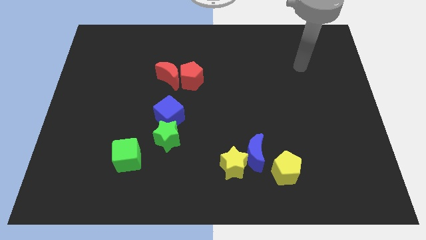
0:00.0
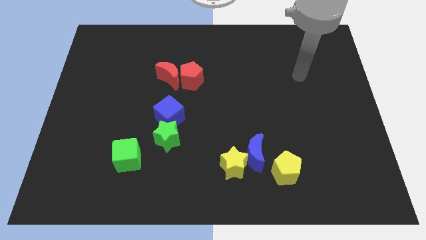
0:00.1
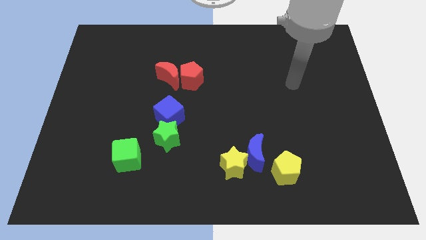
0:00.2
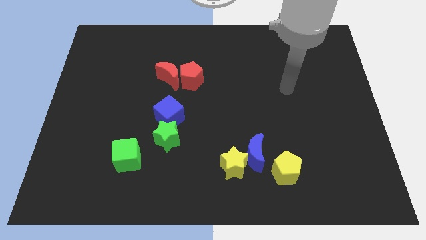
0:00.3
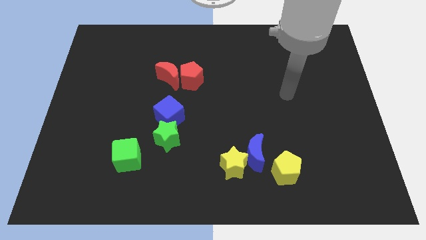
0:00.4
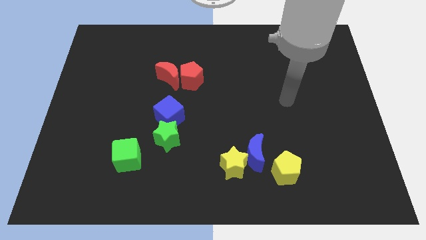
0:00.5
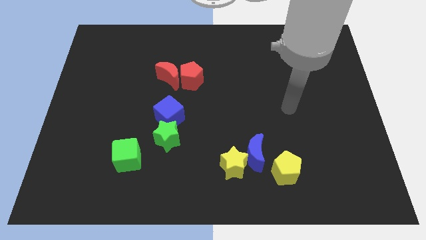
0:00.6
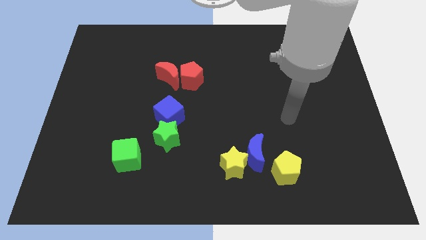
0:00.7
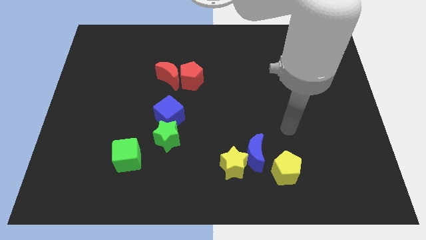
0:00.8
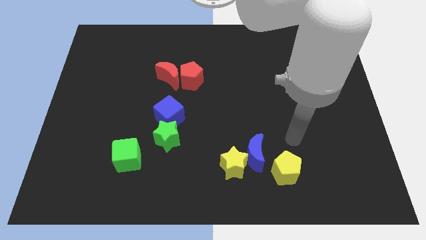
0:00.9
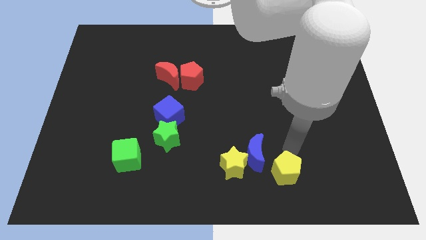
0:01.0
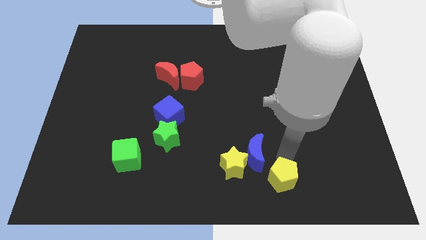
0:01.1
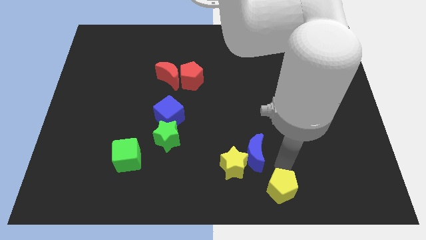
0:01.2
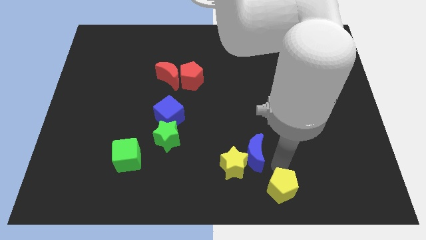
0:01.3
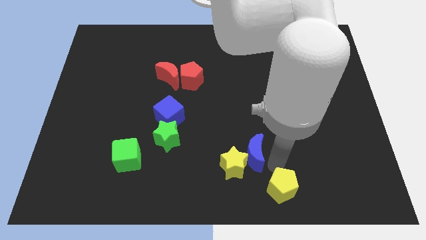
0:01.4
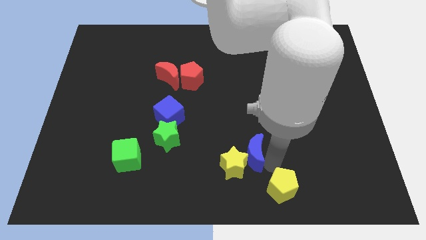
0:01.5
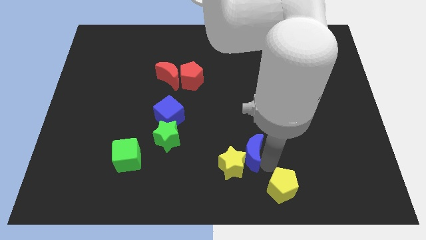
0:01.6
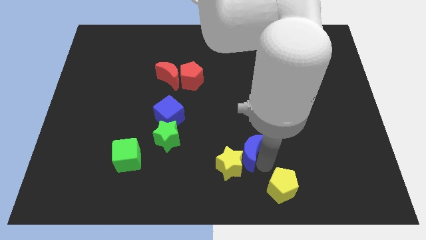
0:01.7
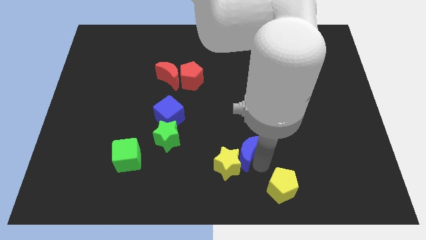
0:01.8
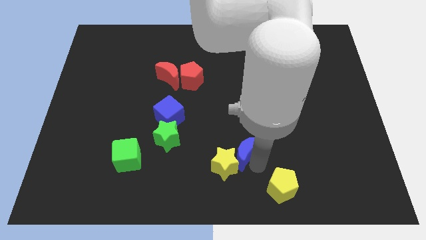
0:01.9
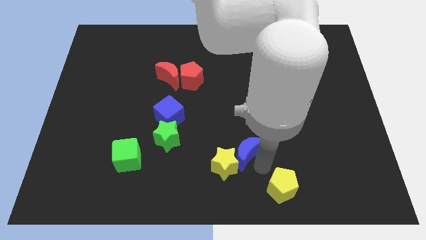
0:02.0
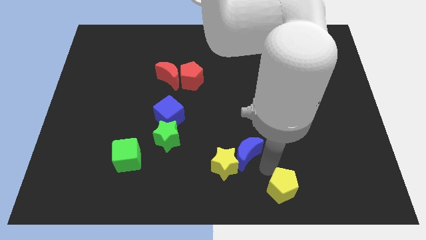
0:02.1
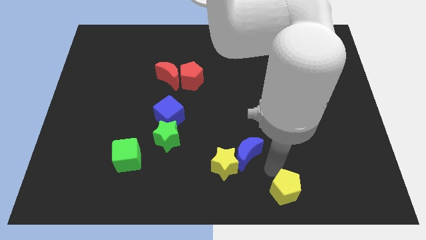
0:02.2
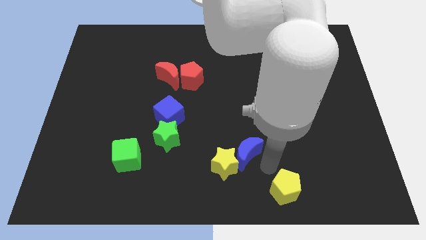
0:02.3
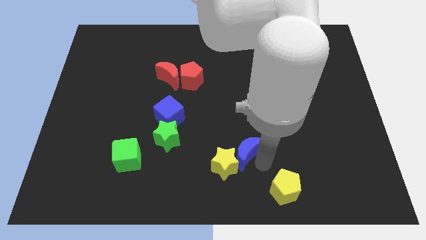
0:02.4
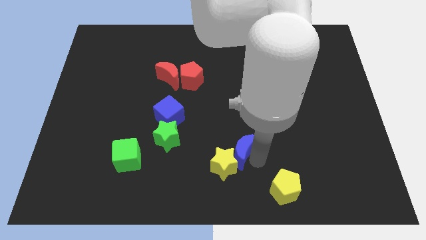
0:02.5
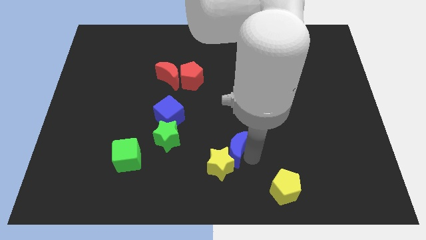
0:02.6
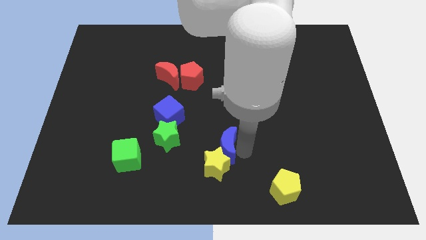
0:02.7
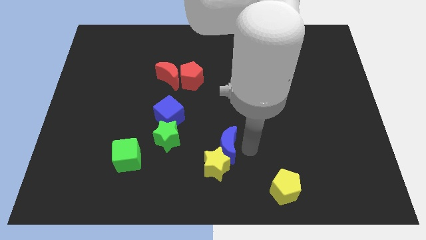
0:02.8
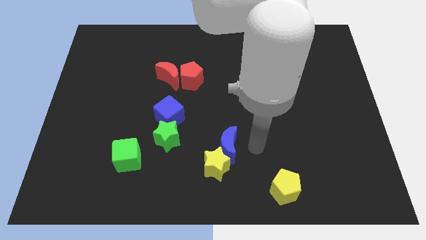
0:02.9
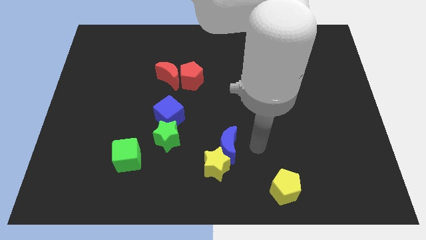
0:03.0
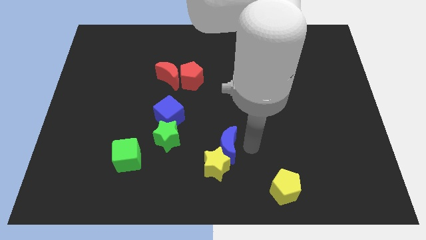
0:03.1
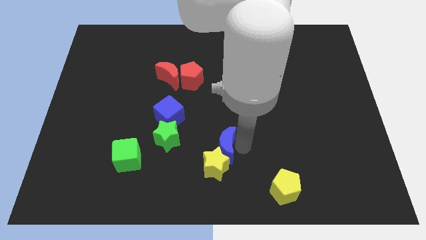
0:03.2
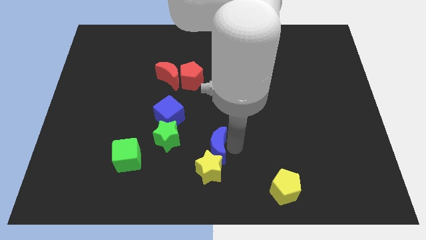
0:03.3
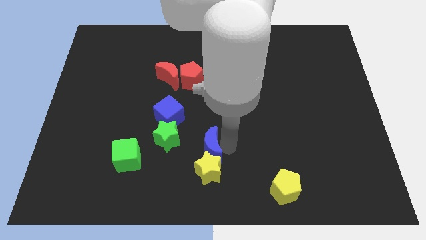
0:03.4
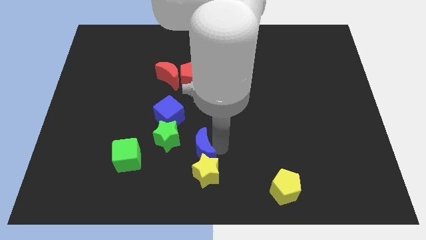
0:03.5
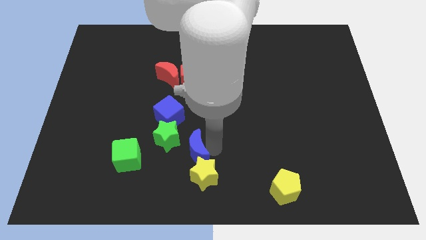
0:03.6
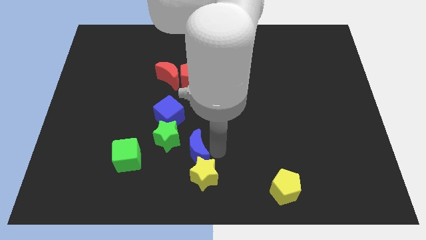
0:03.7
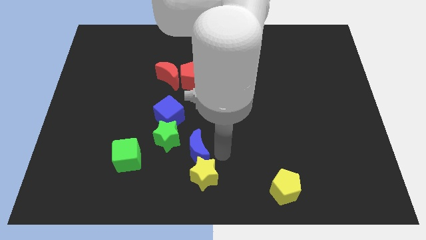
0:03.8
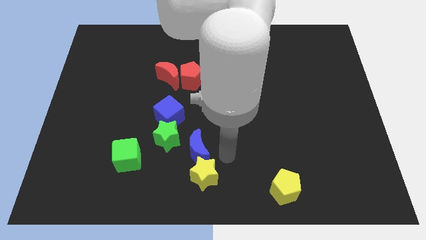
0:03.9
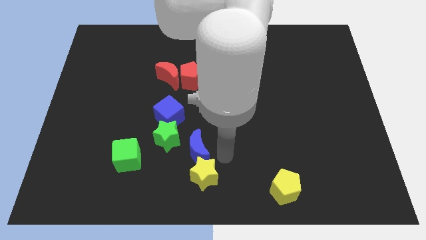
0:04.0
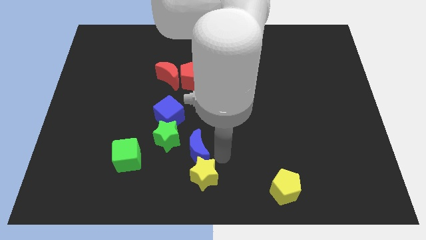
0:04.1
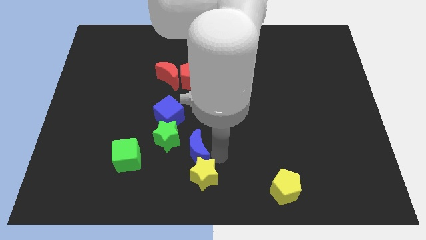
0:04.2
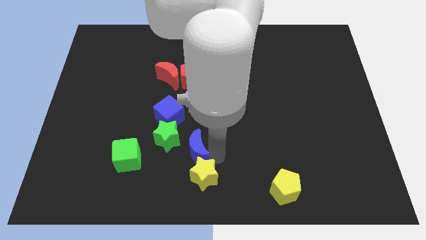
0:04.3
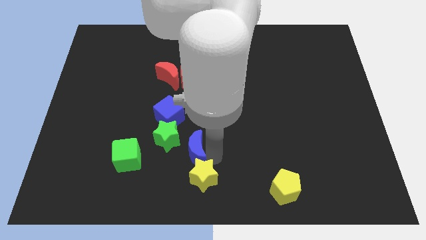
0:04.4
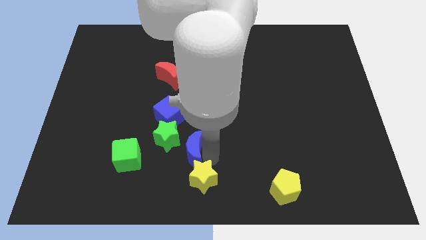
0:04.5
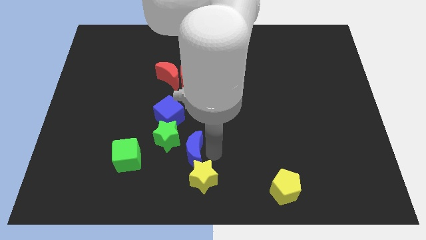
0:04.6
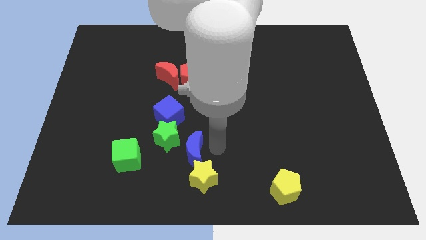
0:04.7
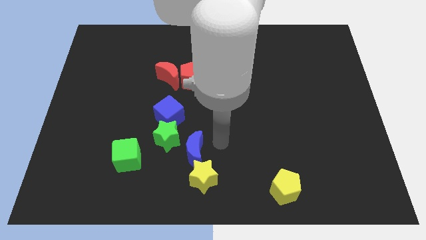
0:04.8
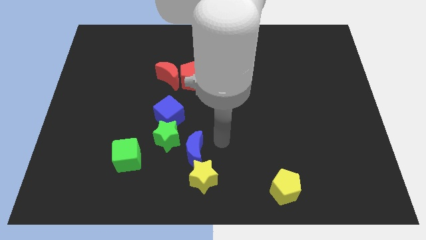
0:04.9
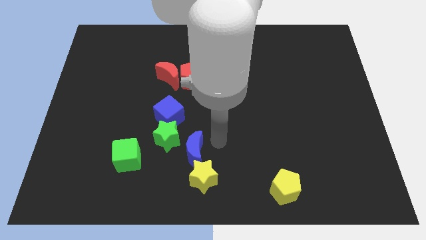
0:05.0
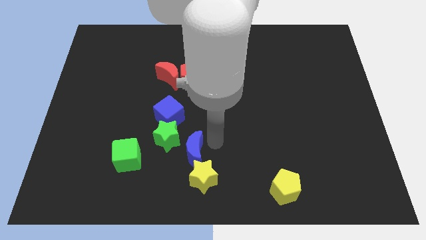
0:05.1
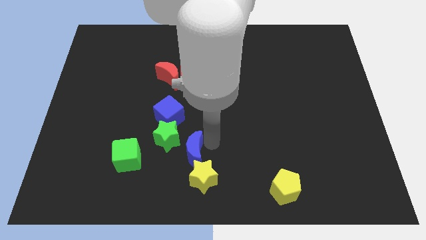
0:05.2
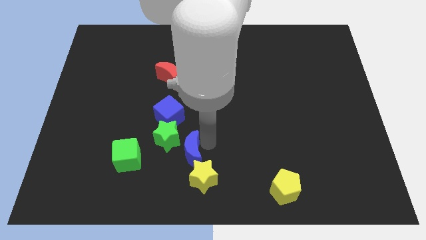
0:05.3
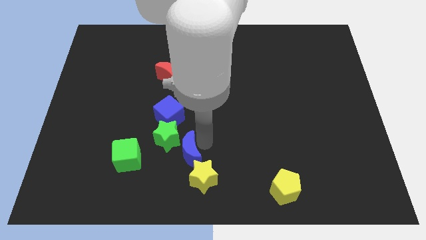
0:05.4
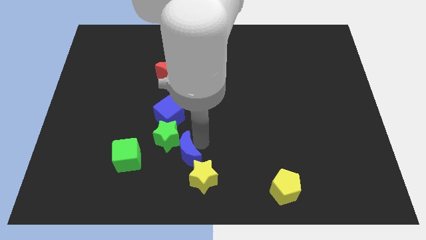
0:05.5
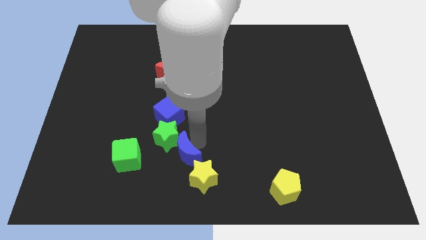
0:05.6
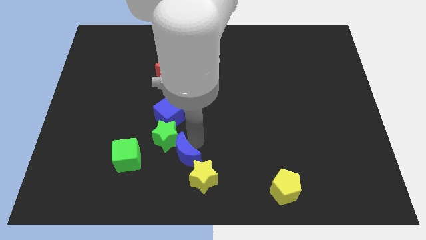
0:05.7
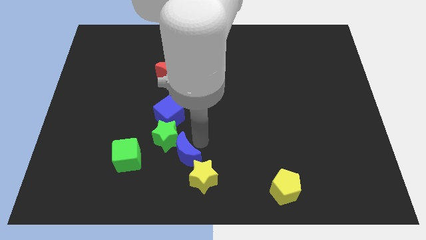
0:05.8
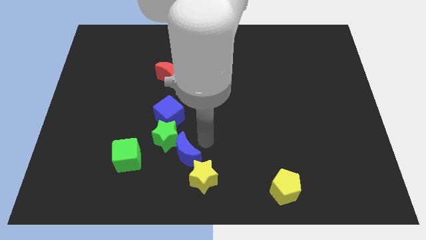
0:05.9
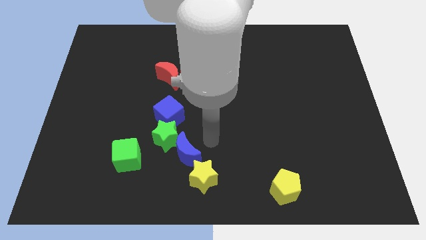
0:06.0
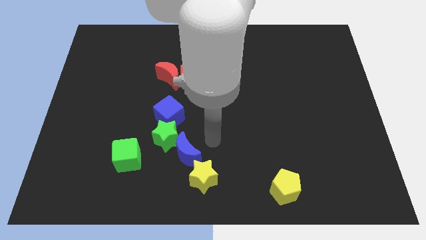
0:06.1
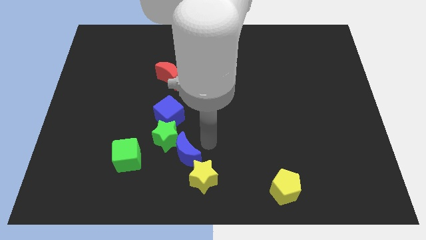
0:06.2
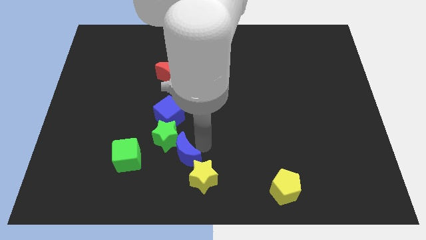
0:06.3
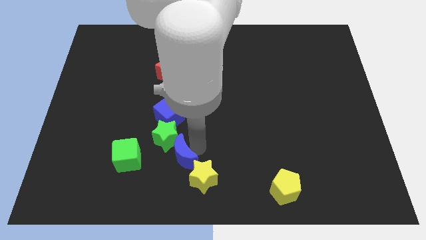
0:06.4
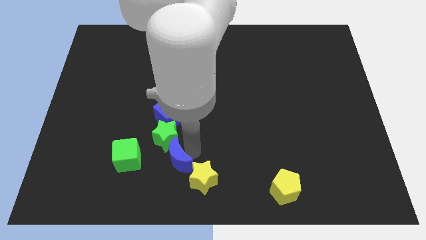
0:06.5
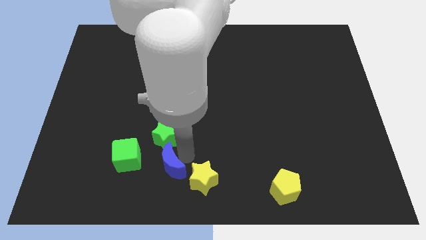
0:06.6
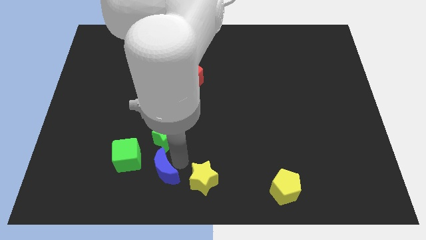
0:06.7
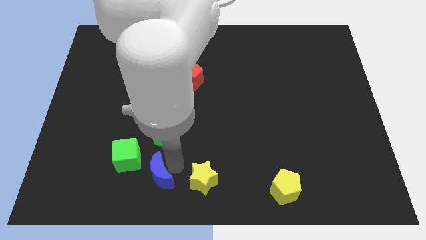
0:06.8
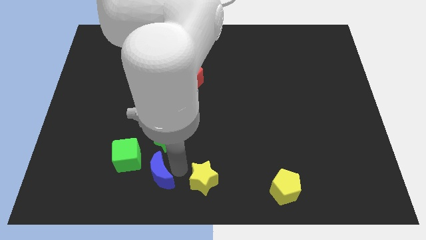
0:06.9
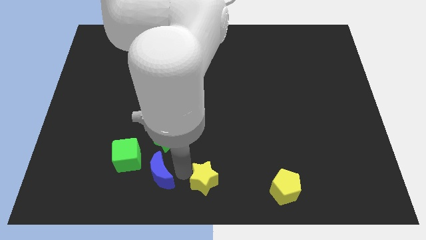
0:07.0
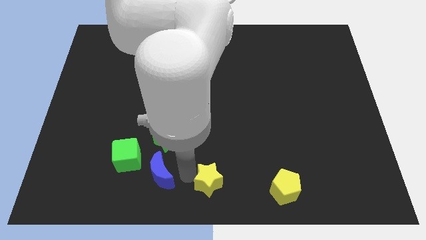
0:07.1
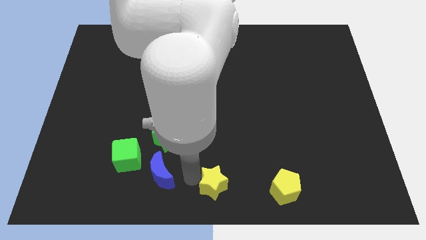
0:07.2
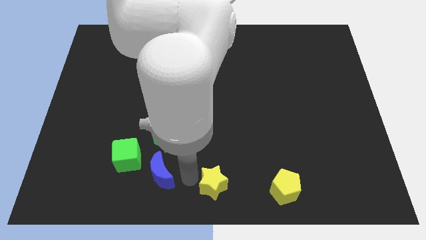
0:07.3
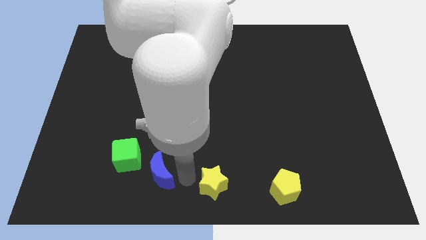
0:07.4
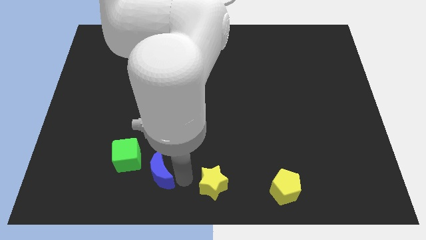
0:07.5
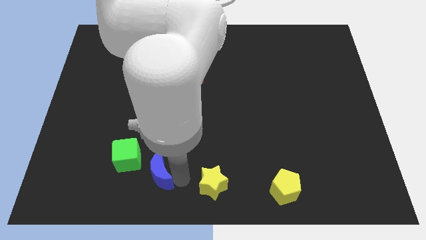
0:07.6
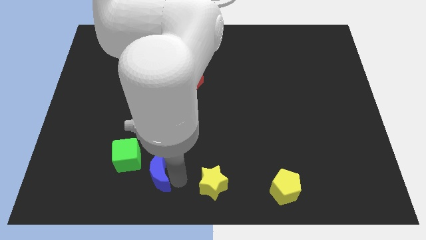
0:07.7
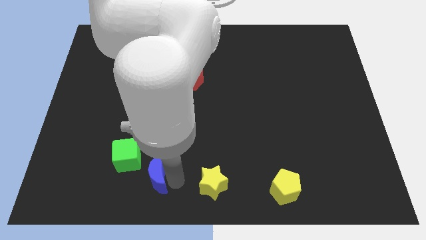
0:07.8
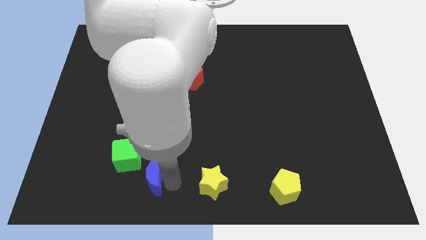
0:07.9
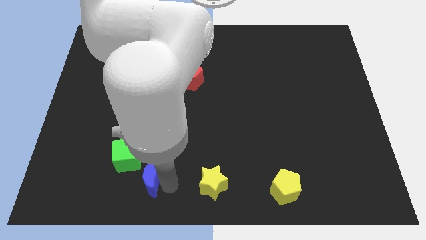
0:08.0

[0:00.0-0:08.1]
push the blue moon left
